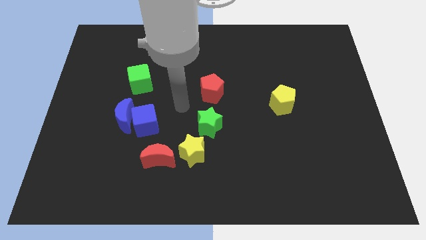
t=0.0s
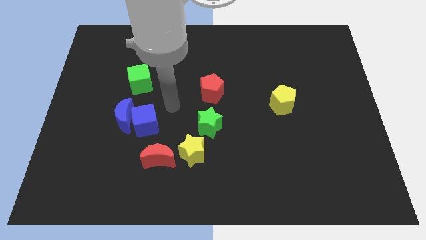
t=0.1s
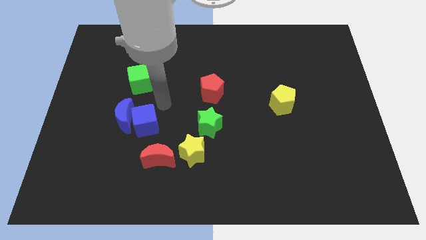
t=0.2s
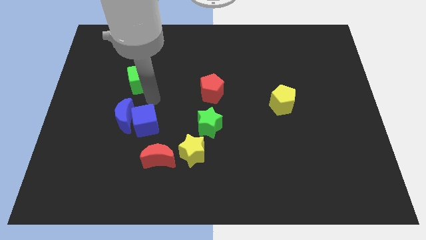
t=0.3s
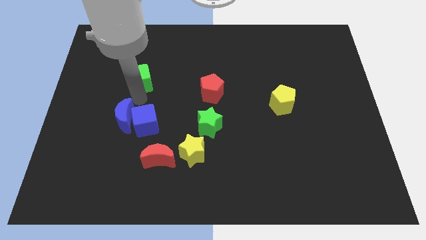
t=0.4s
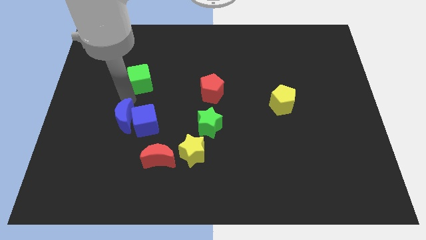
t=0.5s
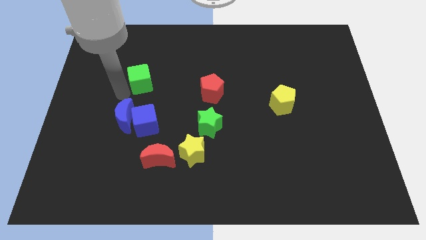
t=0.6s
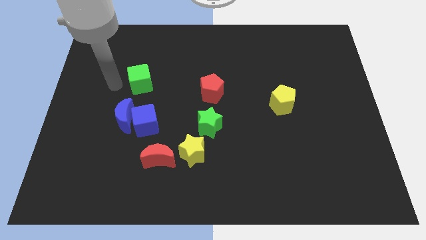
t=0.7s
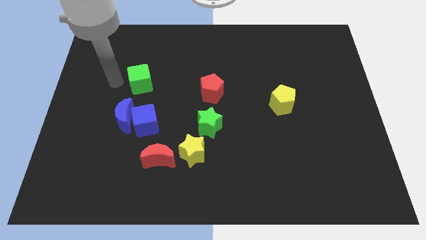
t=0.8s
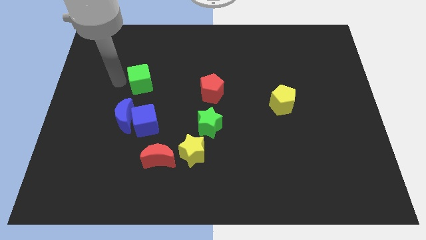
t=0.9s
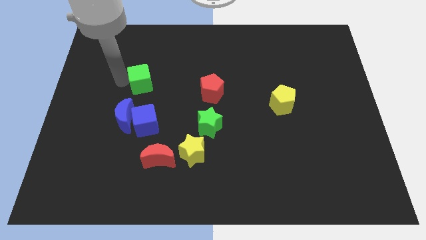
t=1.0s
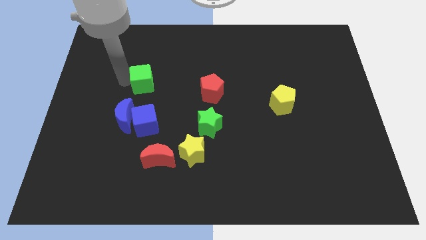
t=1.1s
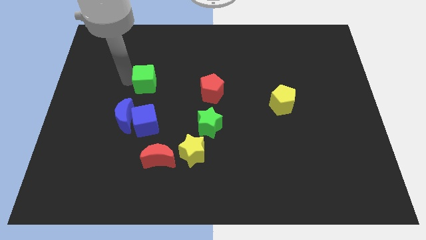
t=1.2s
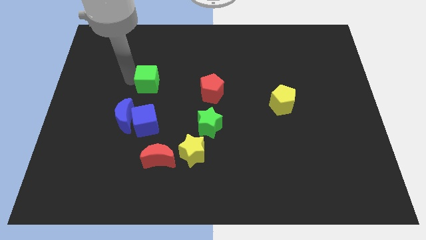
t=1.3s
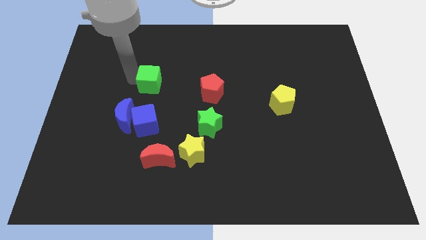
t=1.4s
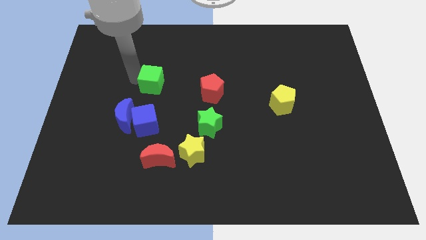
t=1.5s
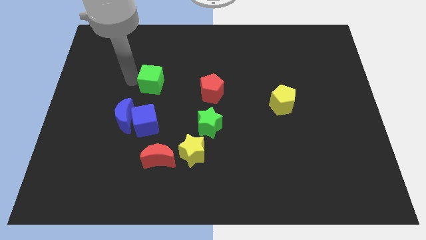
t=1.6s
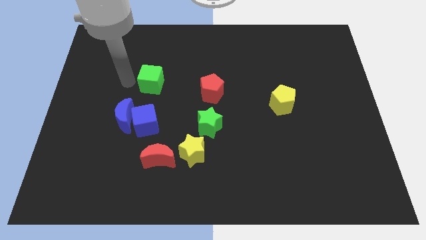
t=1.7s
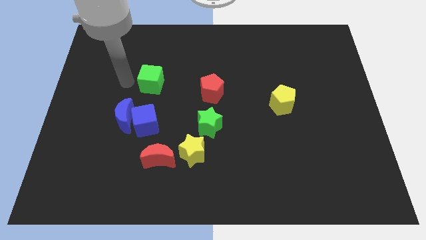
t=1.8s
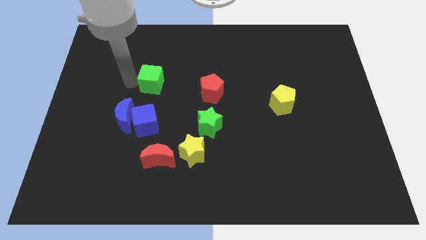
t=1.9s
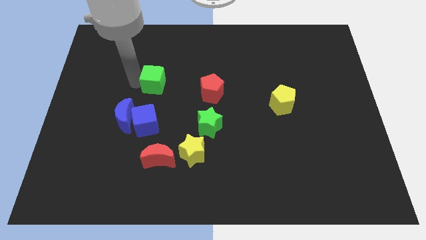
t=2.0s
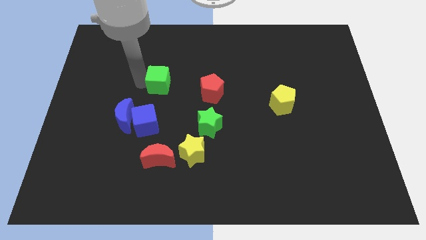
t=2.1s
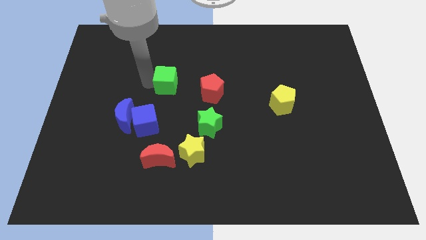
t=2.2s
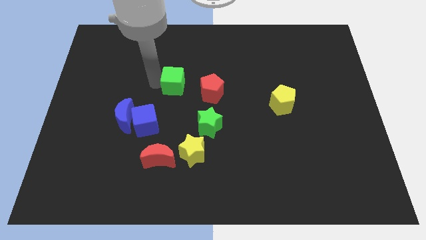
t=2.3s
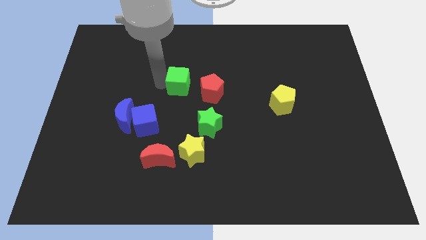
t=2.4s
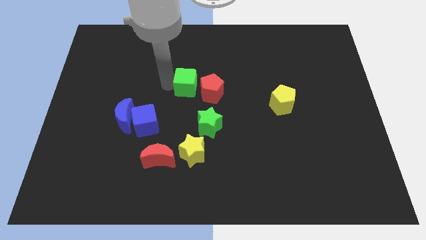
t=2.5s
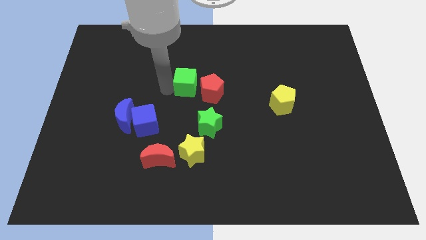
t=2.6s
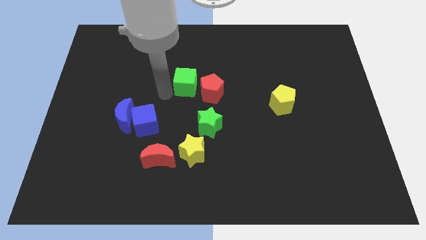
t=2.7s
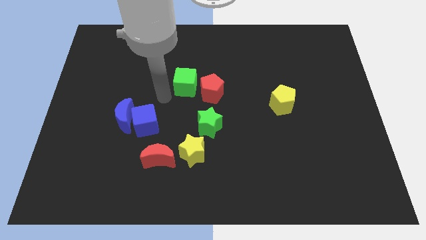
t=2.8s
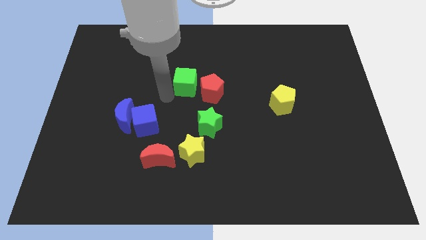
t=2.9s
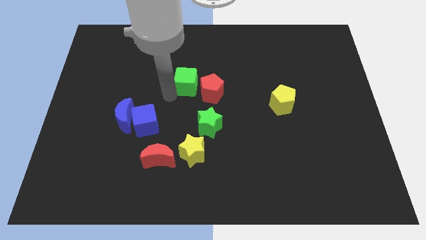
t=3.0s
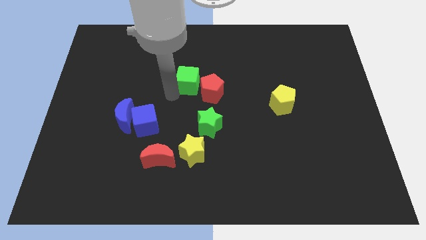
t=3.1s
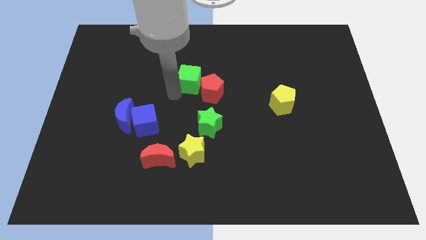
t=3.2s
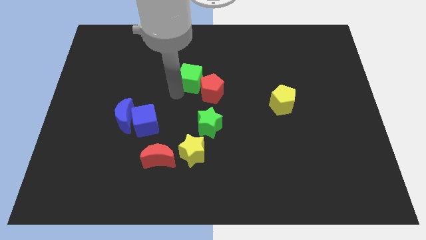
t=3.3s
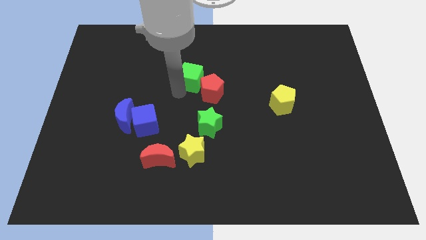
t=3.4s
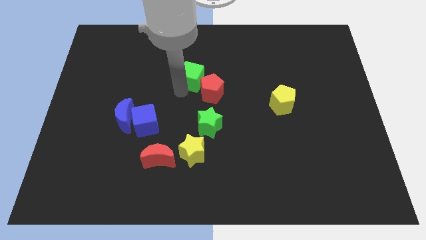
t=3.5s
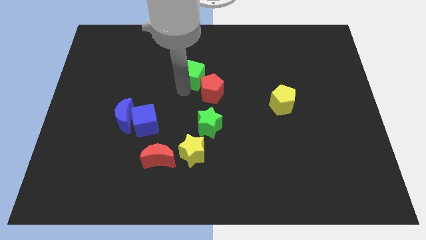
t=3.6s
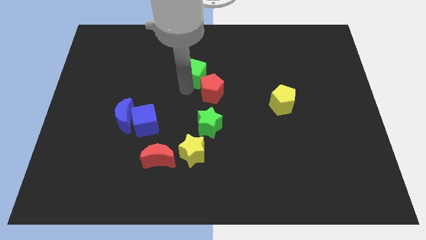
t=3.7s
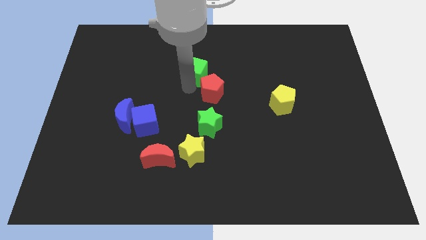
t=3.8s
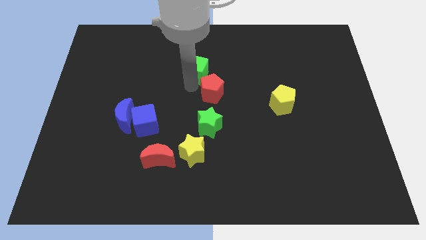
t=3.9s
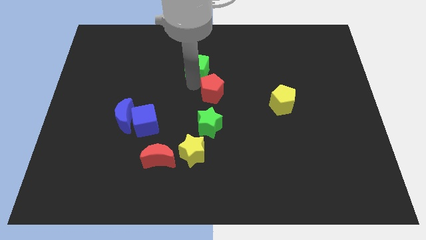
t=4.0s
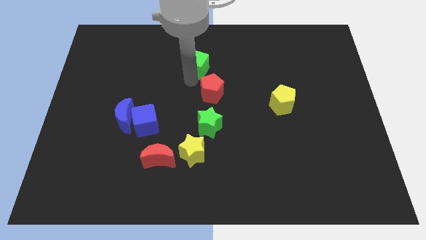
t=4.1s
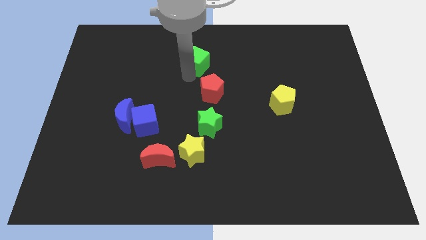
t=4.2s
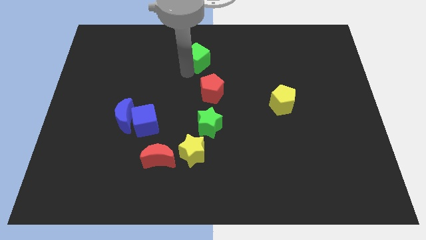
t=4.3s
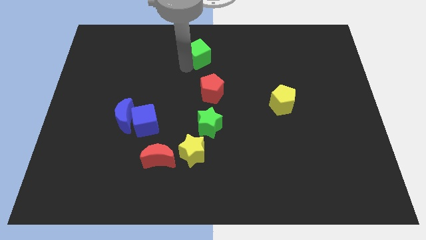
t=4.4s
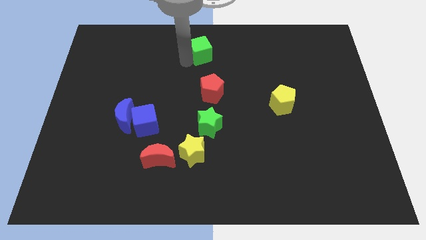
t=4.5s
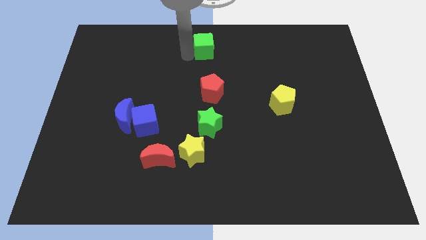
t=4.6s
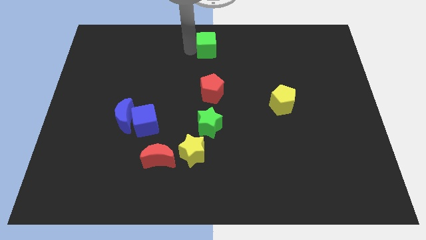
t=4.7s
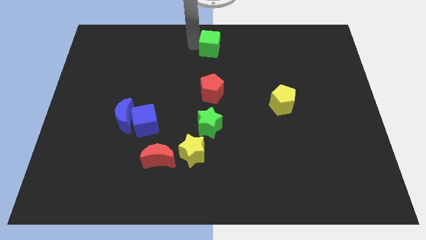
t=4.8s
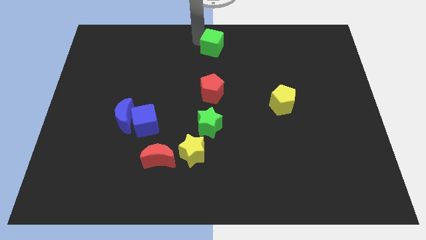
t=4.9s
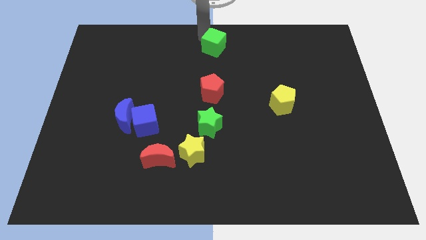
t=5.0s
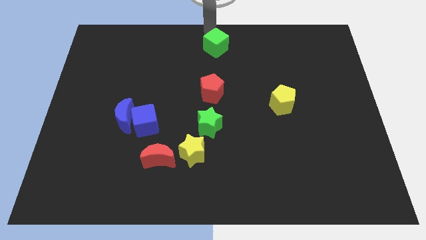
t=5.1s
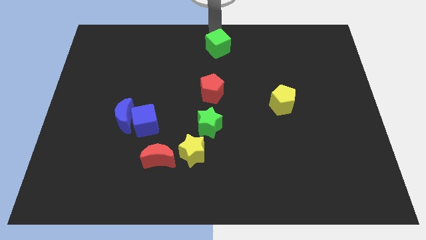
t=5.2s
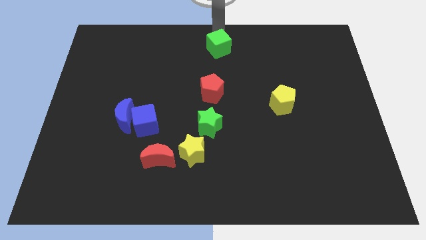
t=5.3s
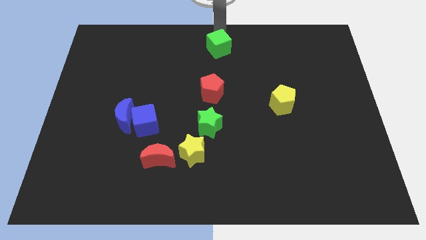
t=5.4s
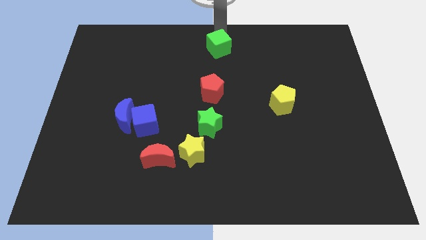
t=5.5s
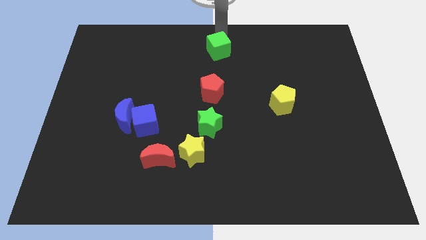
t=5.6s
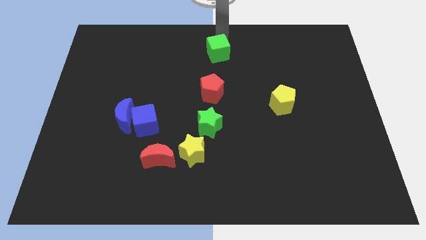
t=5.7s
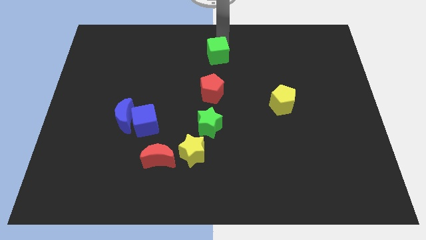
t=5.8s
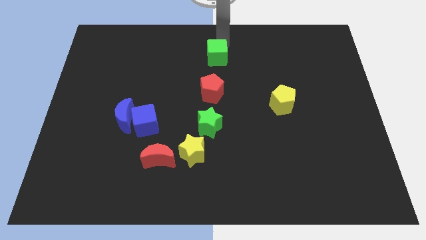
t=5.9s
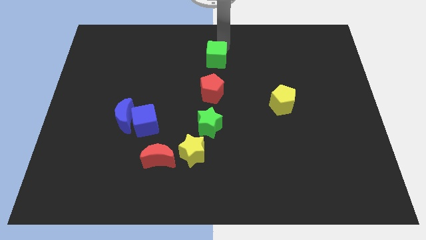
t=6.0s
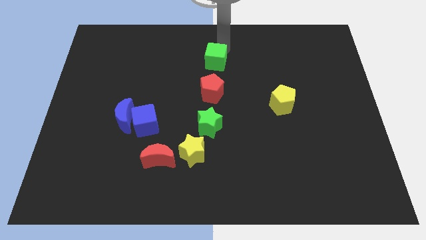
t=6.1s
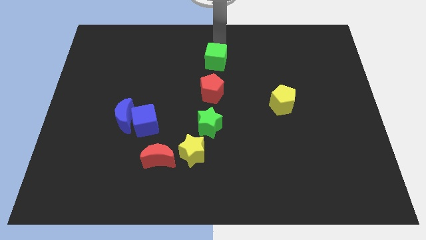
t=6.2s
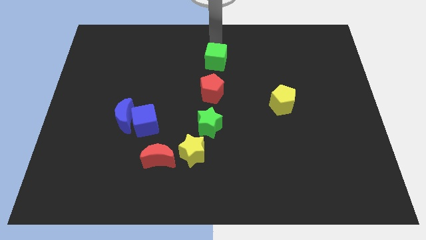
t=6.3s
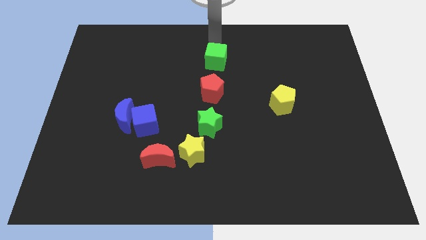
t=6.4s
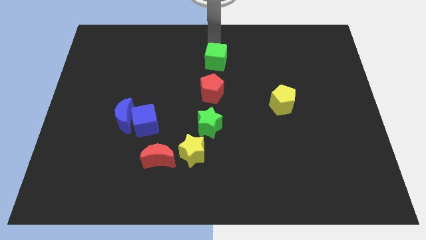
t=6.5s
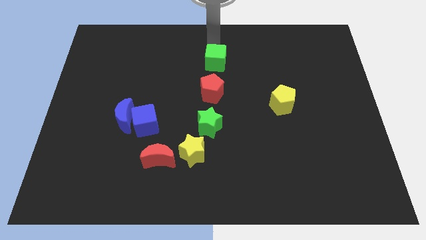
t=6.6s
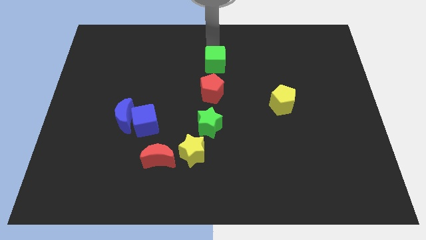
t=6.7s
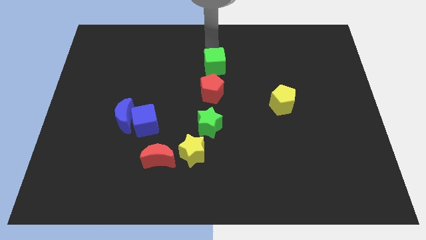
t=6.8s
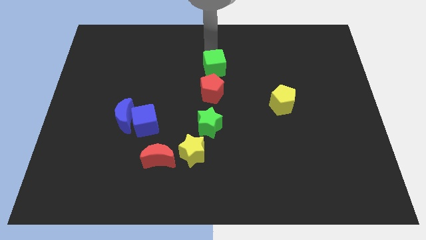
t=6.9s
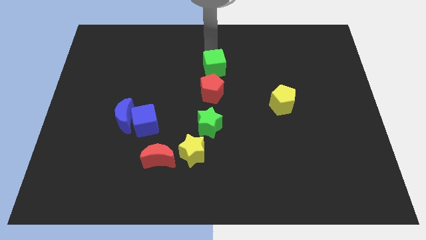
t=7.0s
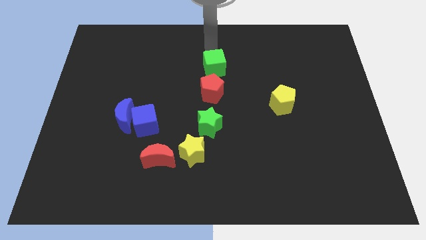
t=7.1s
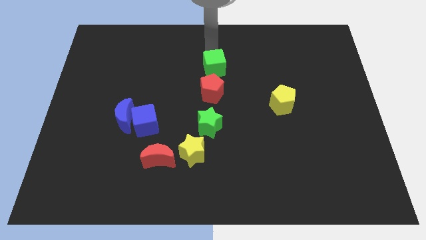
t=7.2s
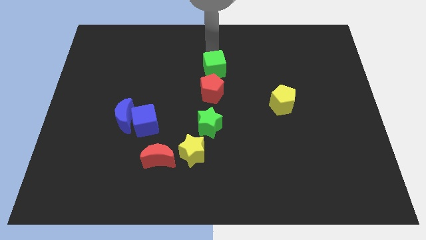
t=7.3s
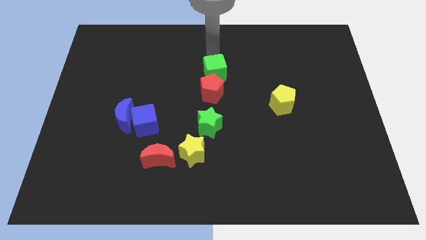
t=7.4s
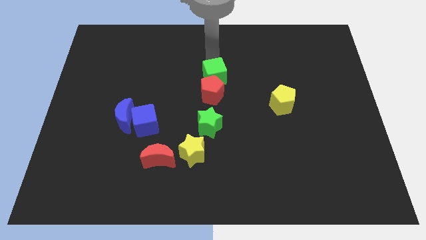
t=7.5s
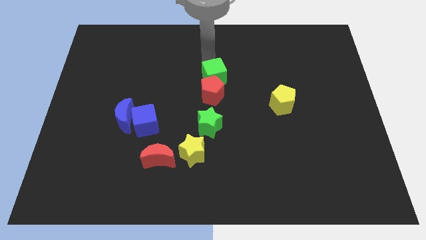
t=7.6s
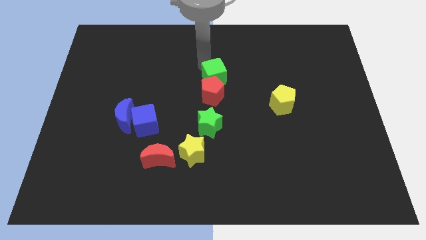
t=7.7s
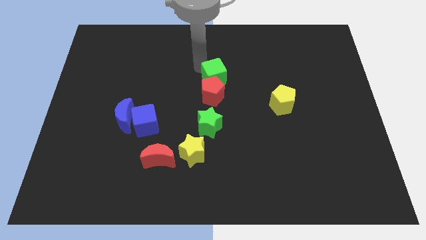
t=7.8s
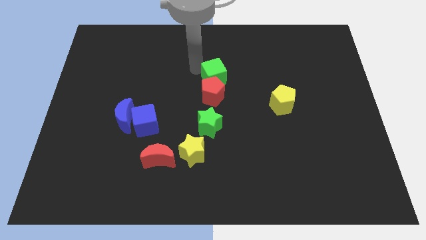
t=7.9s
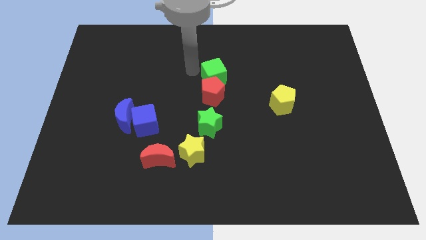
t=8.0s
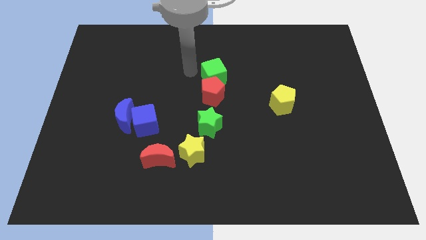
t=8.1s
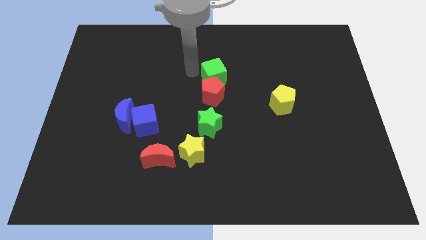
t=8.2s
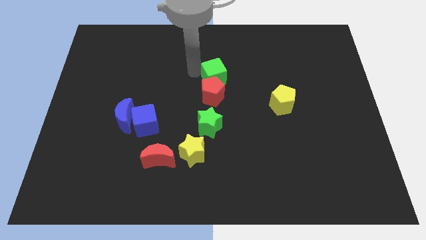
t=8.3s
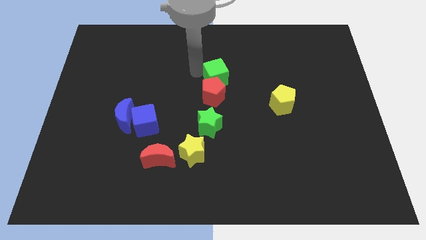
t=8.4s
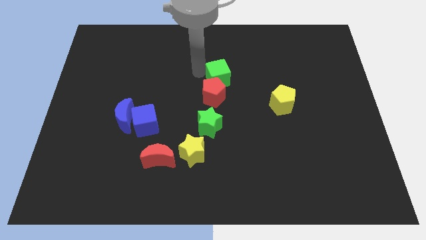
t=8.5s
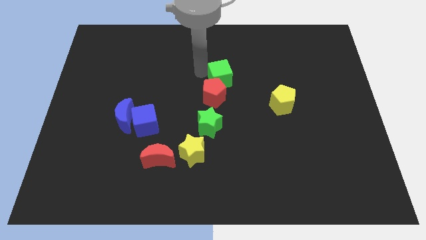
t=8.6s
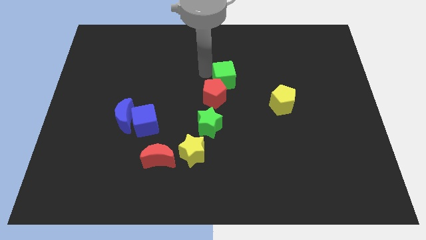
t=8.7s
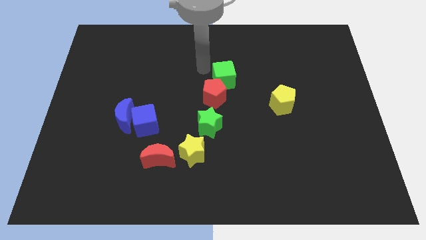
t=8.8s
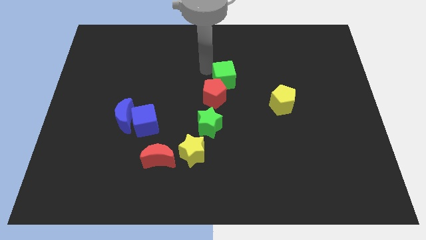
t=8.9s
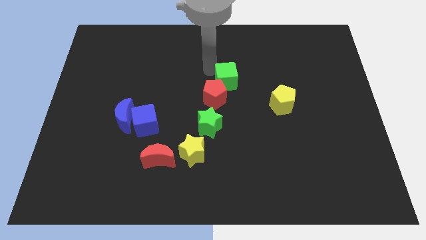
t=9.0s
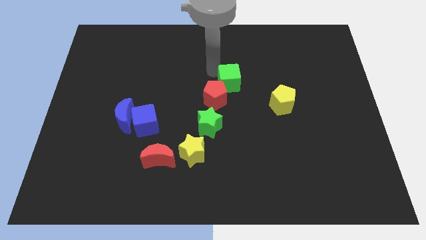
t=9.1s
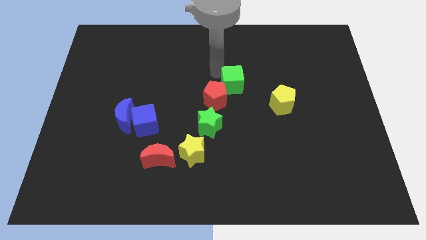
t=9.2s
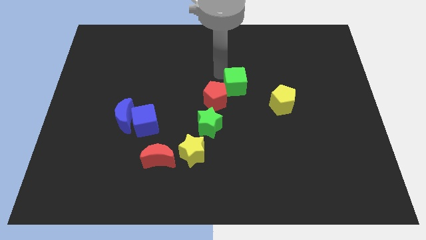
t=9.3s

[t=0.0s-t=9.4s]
move the green cube just right of the red pentagon
